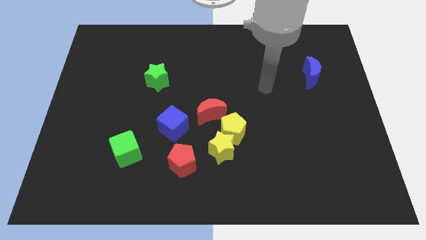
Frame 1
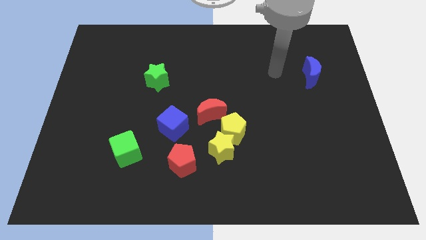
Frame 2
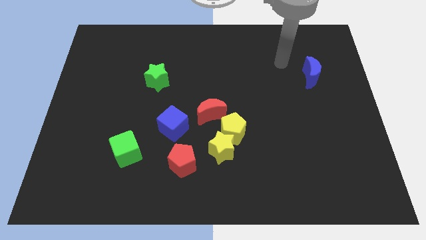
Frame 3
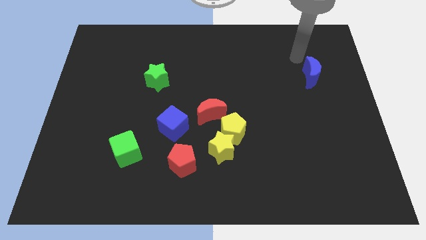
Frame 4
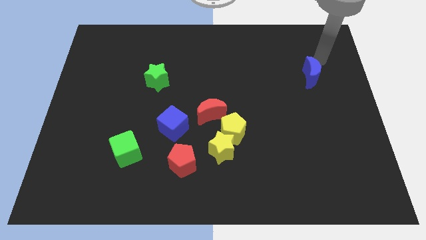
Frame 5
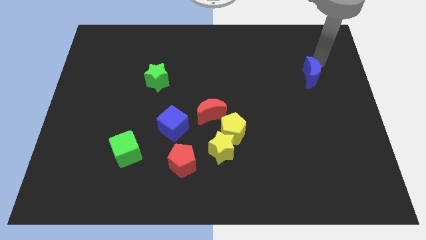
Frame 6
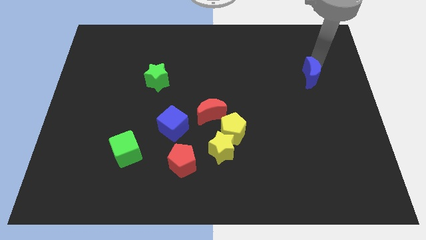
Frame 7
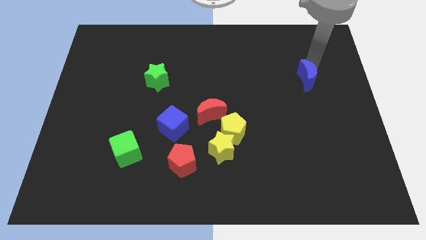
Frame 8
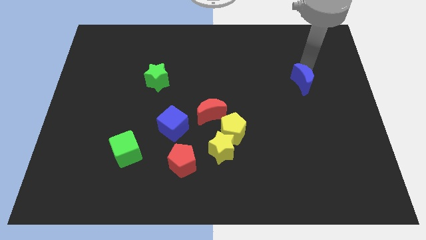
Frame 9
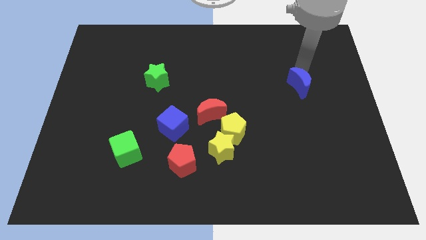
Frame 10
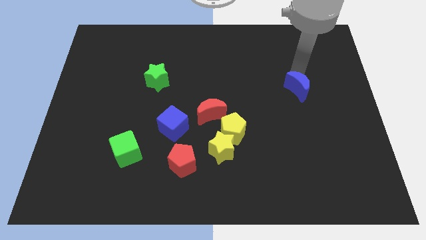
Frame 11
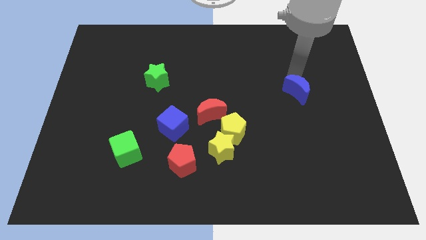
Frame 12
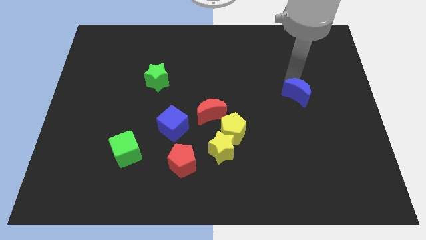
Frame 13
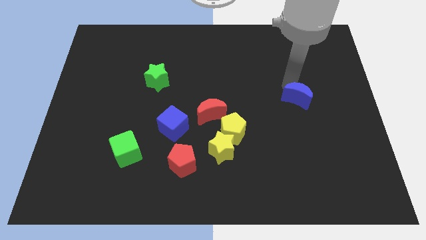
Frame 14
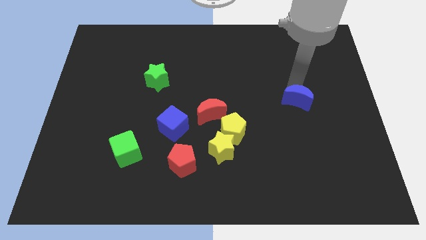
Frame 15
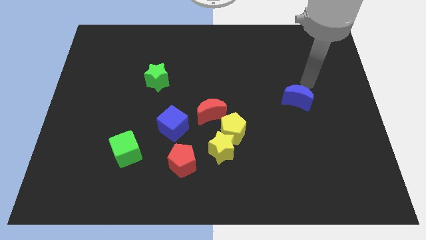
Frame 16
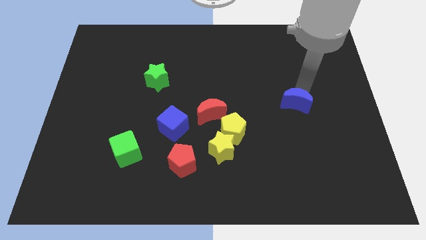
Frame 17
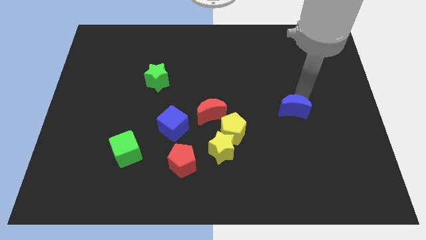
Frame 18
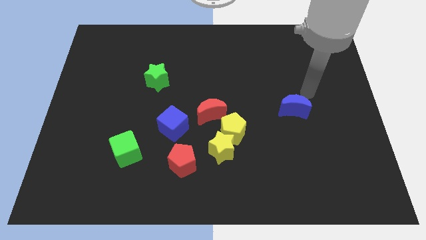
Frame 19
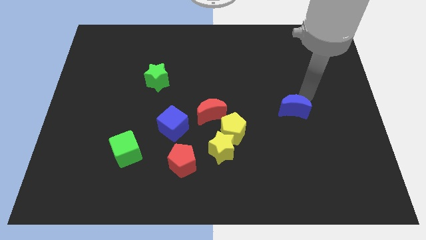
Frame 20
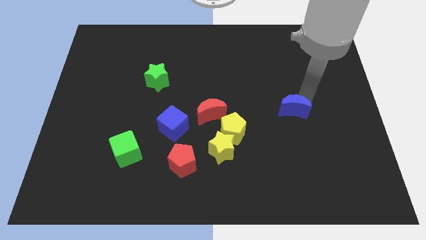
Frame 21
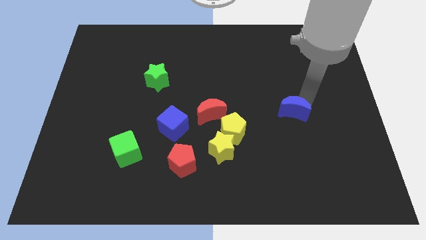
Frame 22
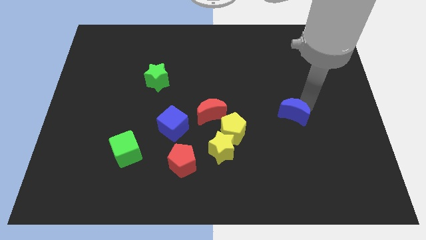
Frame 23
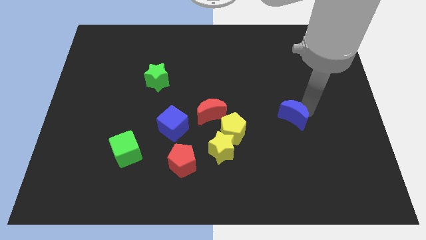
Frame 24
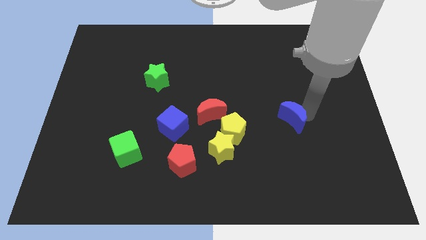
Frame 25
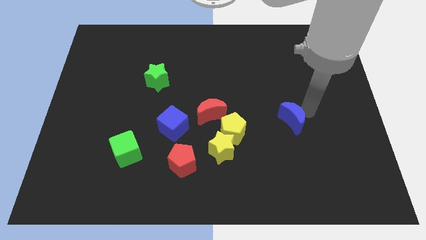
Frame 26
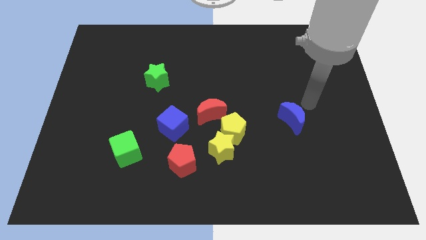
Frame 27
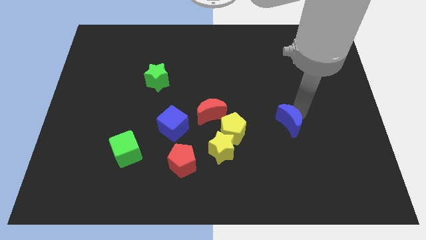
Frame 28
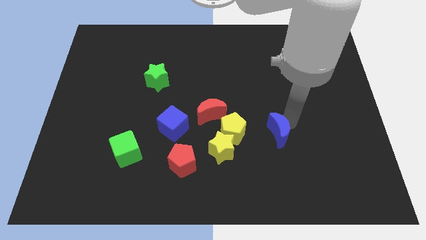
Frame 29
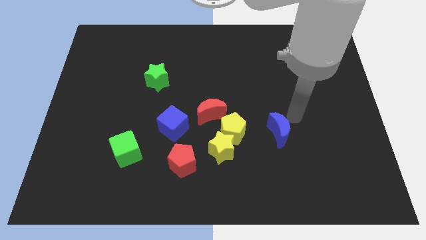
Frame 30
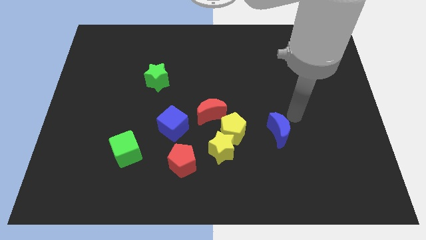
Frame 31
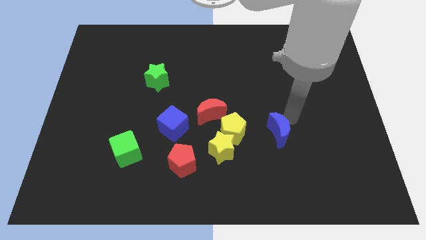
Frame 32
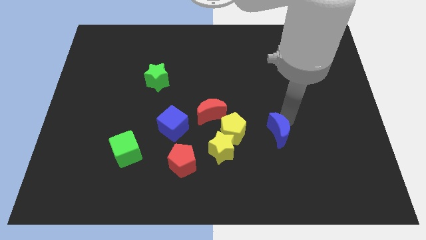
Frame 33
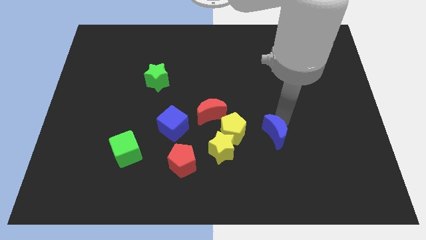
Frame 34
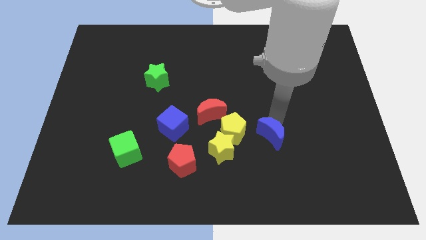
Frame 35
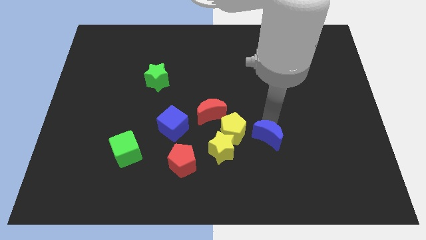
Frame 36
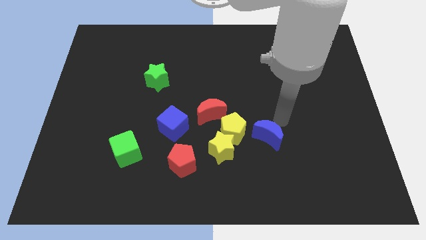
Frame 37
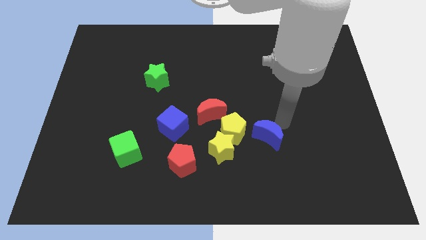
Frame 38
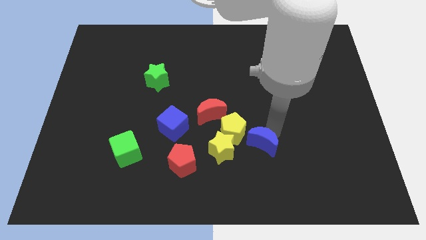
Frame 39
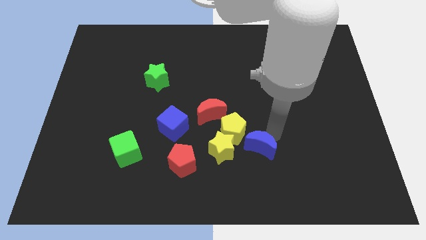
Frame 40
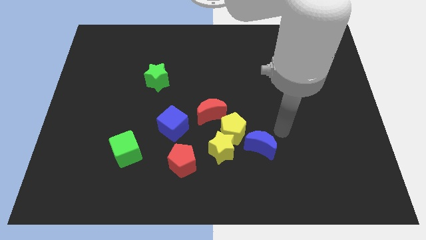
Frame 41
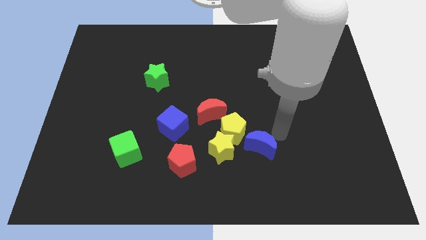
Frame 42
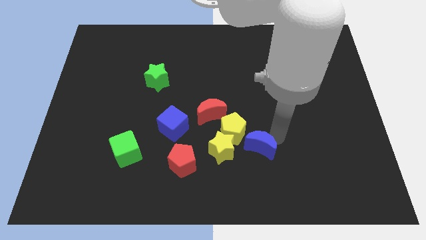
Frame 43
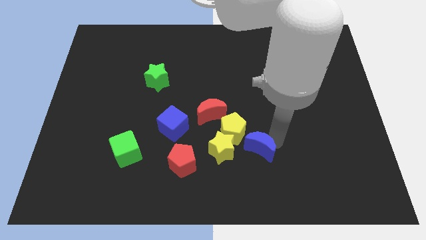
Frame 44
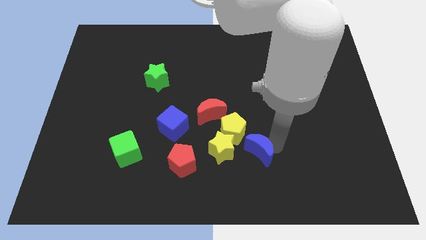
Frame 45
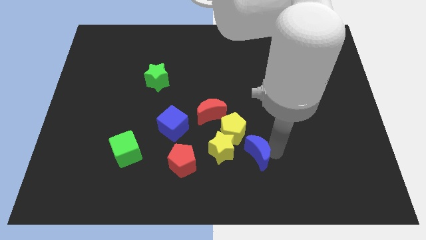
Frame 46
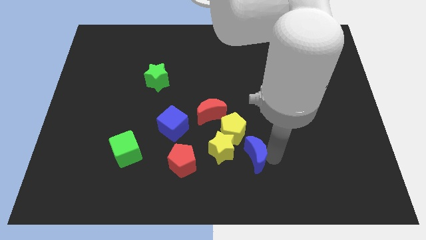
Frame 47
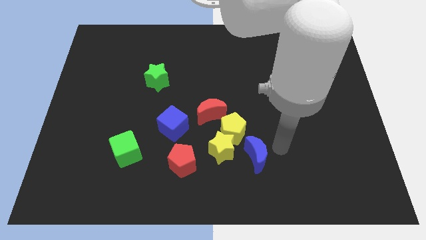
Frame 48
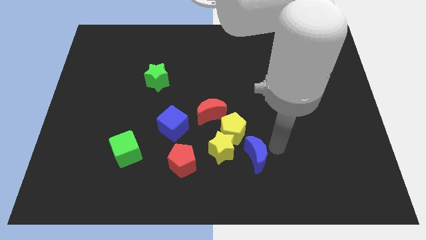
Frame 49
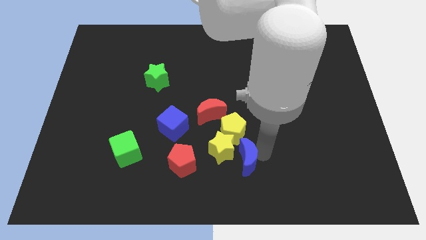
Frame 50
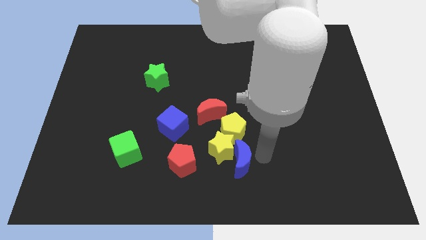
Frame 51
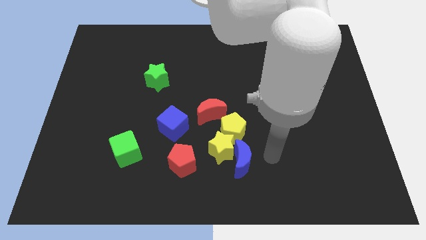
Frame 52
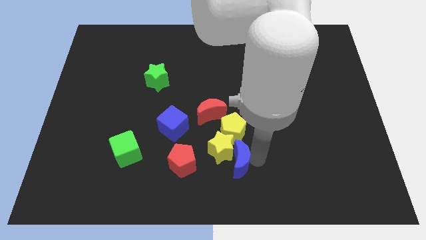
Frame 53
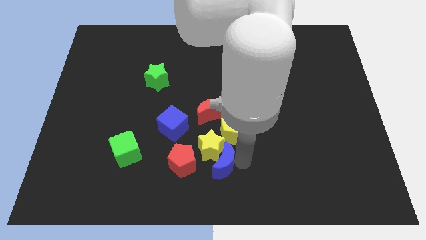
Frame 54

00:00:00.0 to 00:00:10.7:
put the blue moon to the bottom left of the yellow pentagon

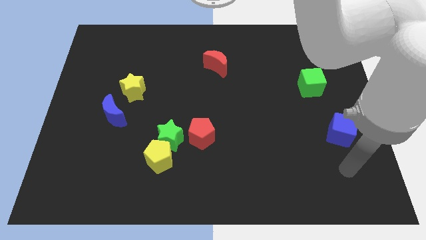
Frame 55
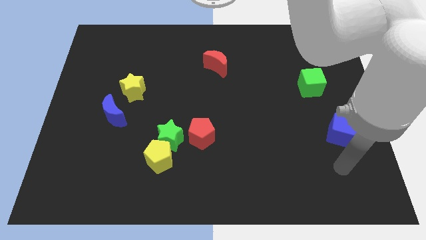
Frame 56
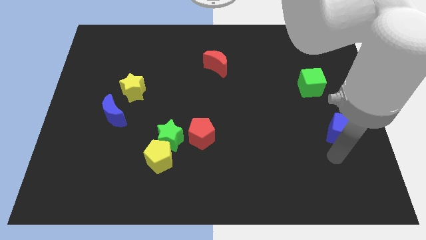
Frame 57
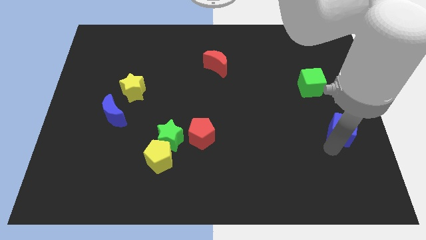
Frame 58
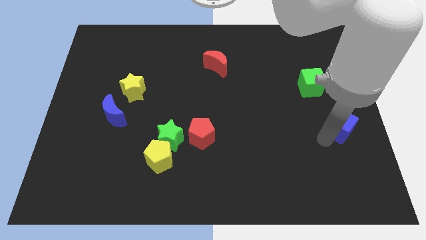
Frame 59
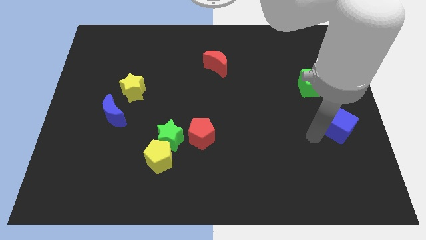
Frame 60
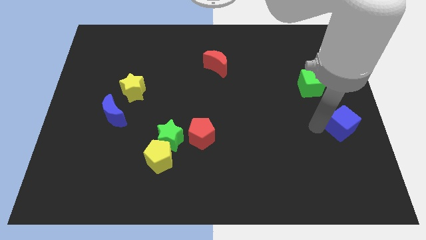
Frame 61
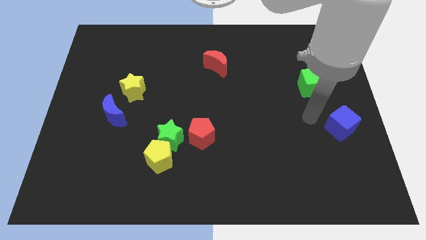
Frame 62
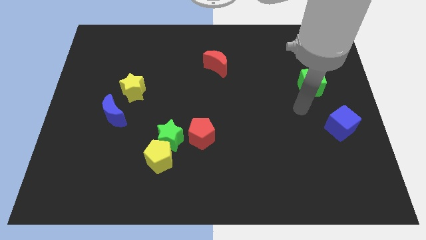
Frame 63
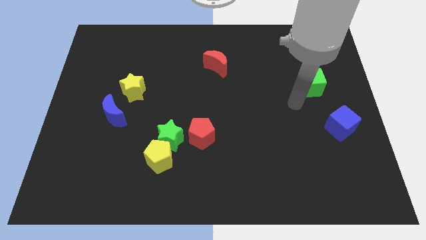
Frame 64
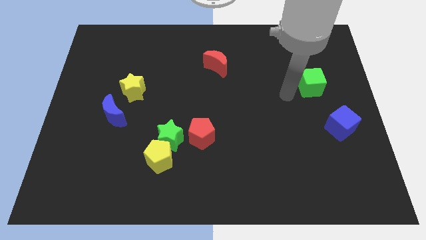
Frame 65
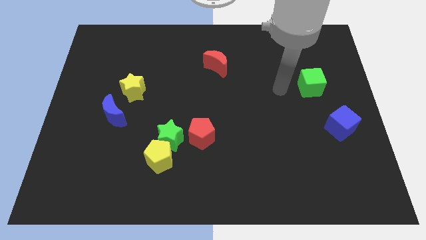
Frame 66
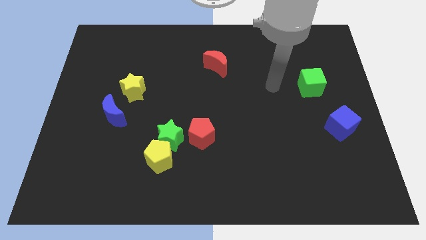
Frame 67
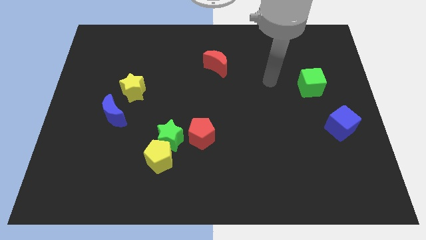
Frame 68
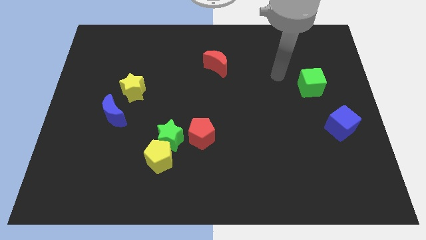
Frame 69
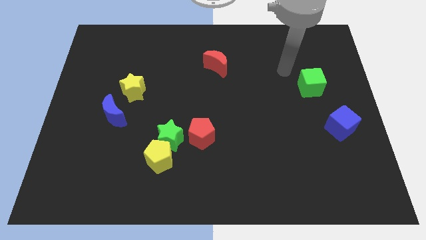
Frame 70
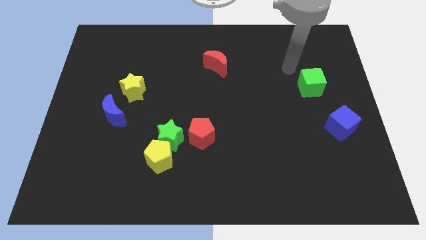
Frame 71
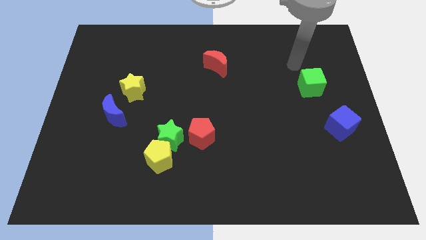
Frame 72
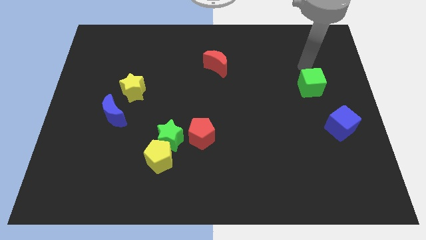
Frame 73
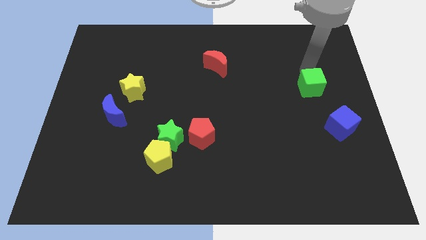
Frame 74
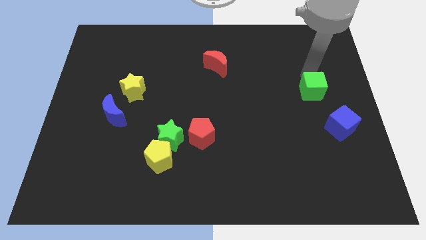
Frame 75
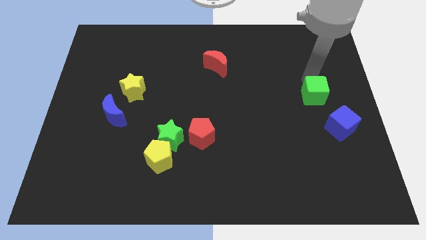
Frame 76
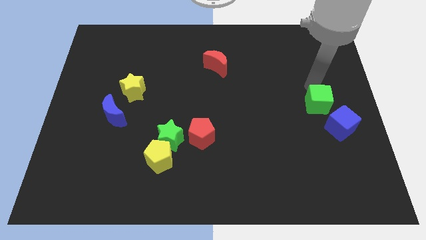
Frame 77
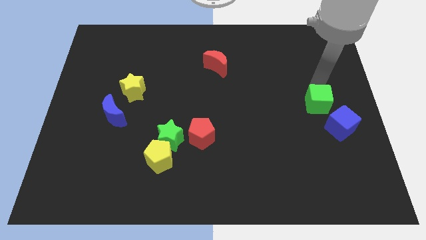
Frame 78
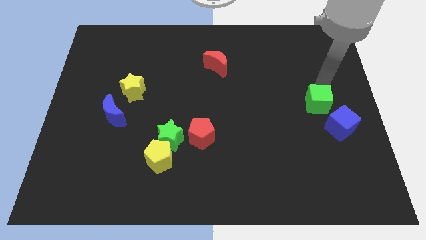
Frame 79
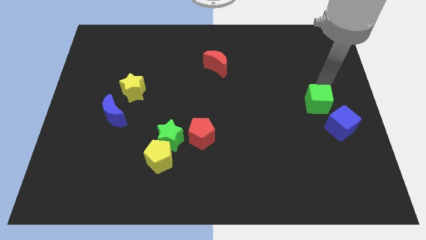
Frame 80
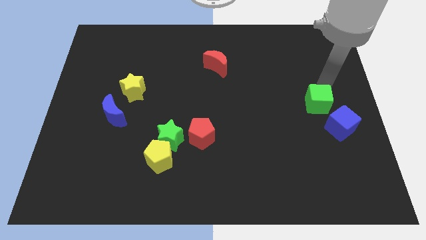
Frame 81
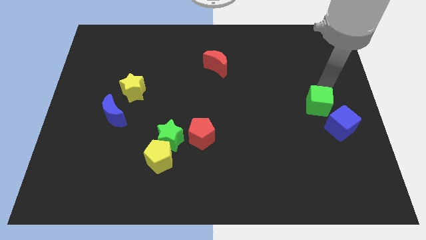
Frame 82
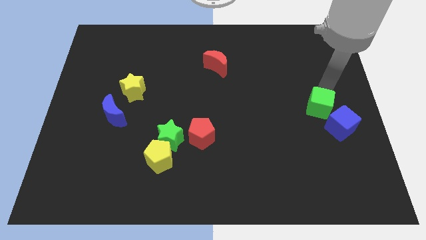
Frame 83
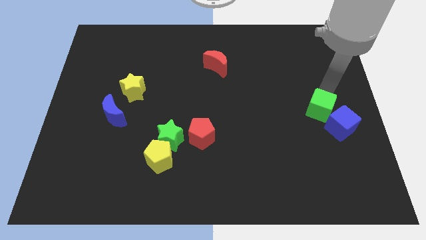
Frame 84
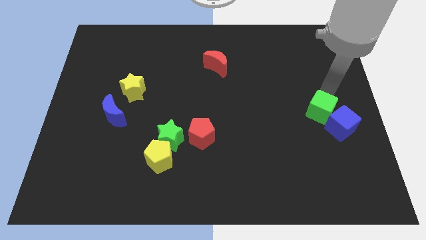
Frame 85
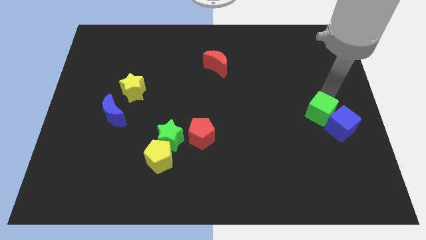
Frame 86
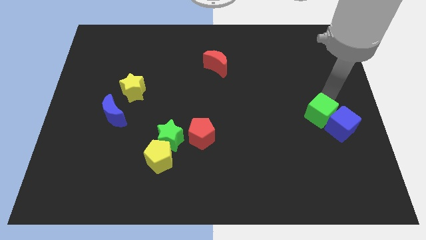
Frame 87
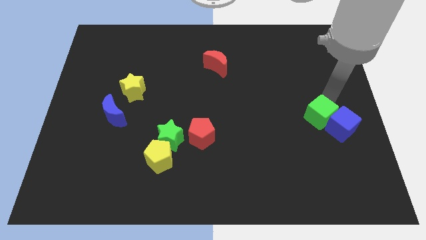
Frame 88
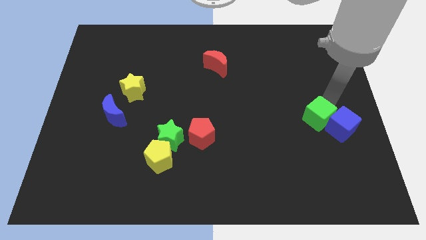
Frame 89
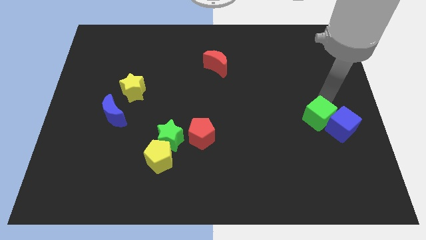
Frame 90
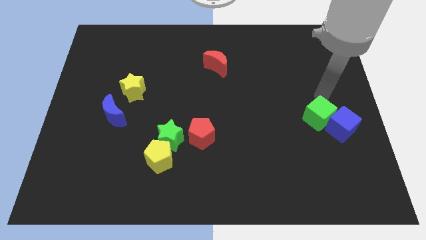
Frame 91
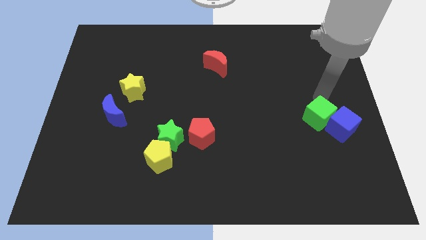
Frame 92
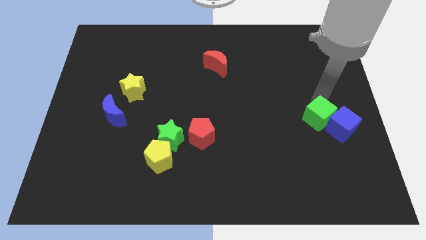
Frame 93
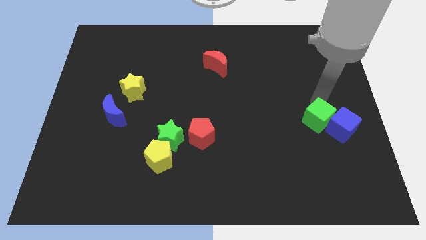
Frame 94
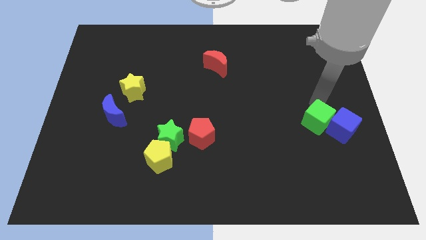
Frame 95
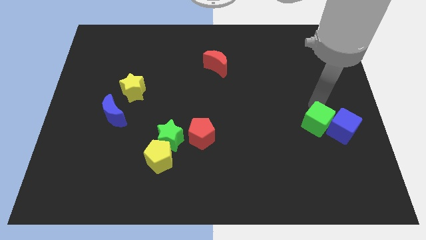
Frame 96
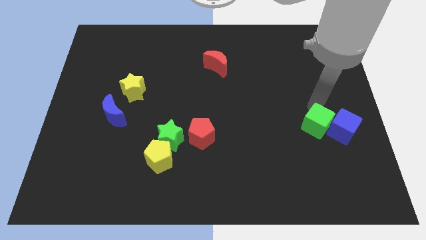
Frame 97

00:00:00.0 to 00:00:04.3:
put the green cube to the bottom left of the blue cube
